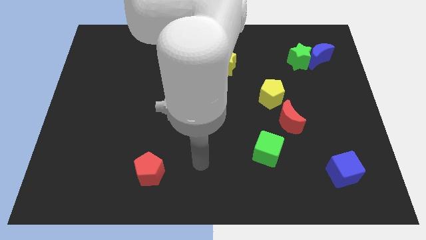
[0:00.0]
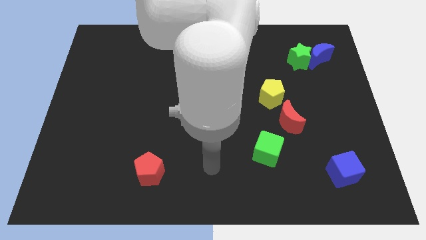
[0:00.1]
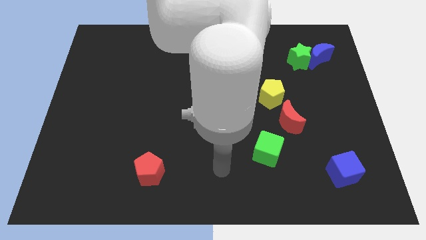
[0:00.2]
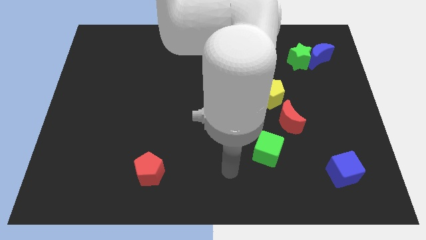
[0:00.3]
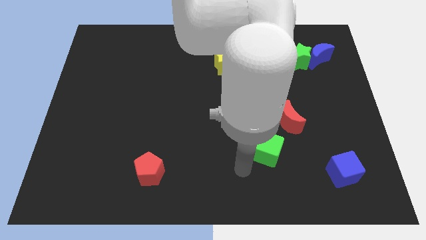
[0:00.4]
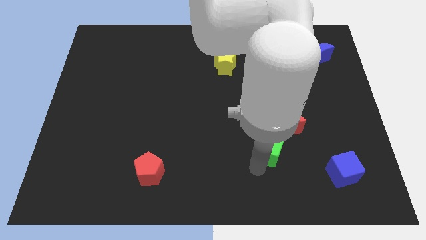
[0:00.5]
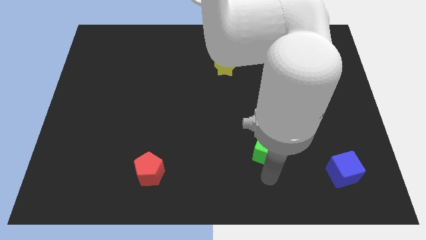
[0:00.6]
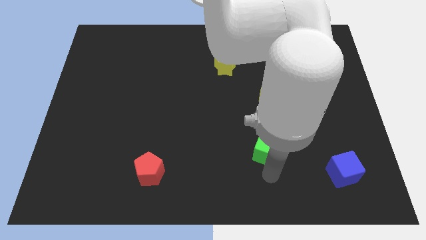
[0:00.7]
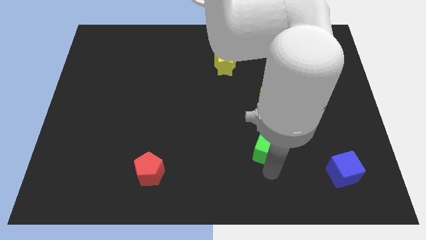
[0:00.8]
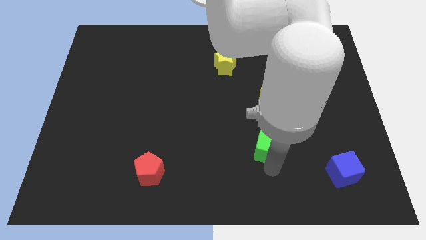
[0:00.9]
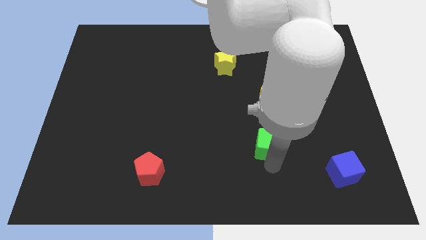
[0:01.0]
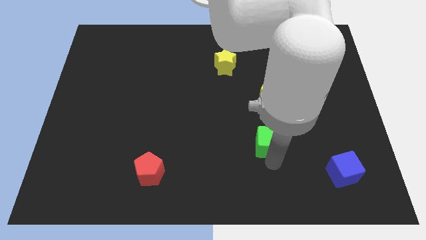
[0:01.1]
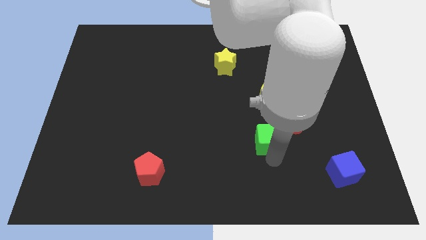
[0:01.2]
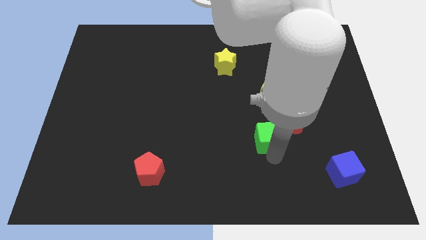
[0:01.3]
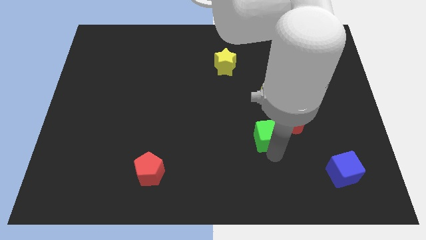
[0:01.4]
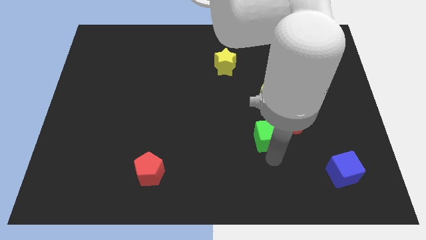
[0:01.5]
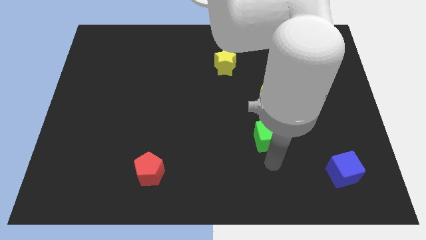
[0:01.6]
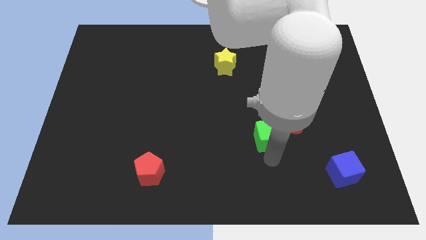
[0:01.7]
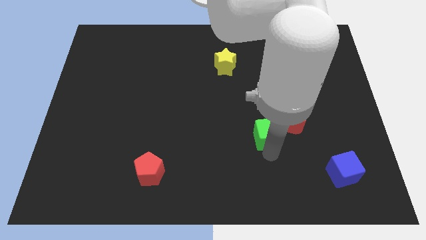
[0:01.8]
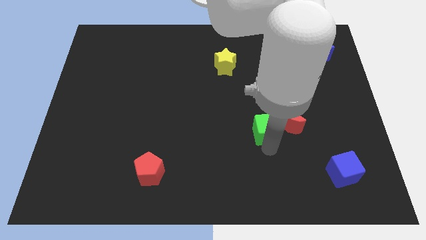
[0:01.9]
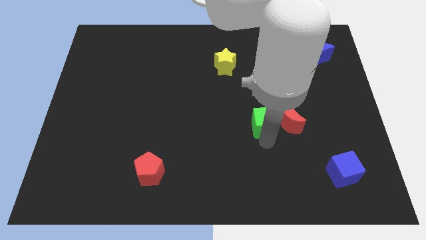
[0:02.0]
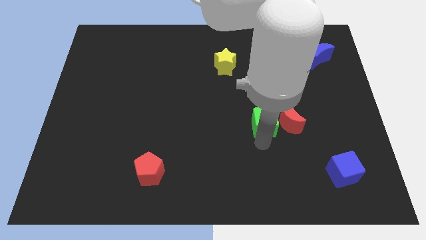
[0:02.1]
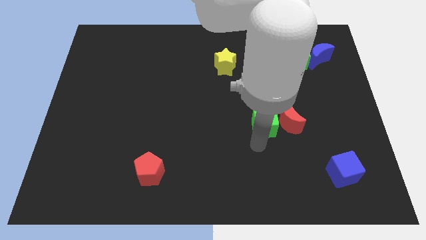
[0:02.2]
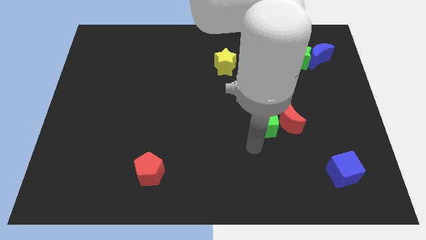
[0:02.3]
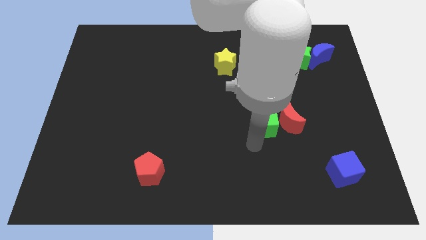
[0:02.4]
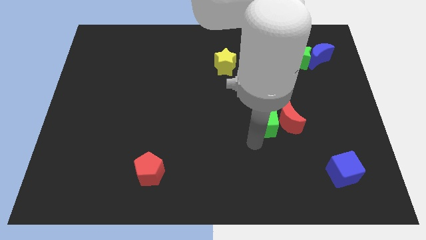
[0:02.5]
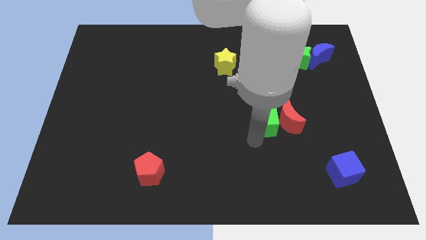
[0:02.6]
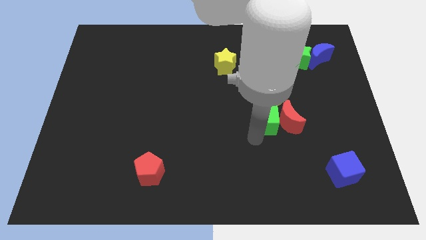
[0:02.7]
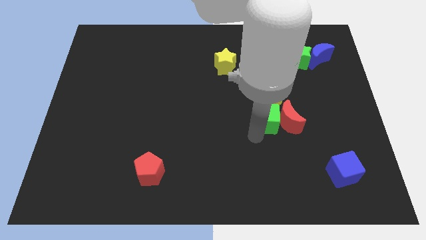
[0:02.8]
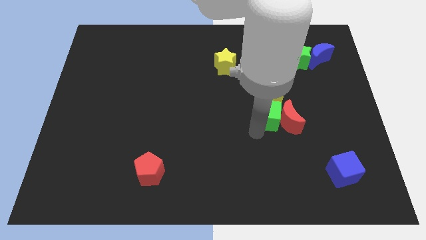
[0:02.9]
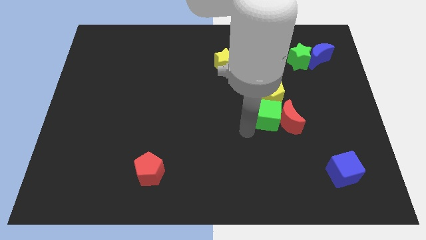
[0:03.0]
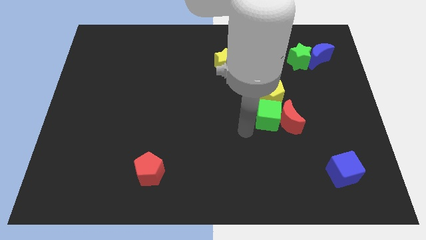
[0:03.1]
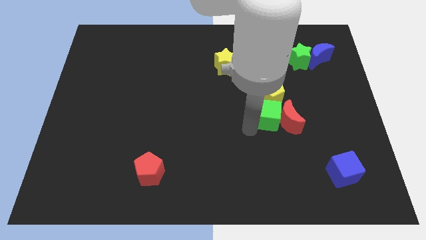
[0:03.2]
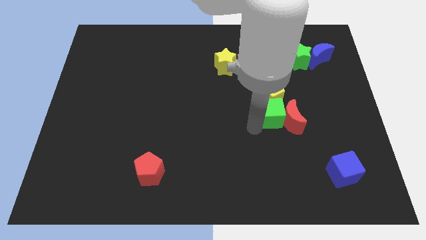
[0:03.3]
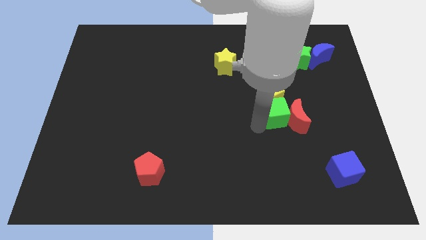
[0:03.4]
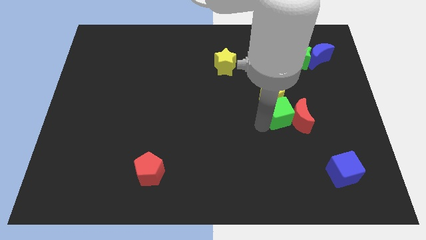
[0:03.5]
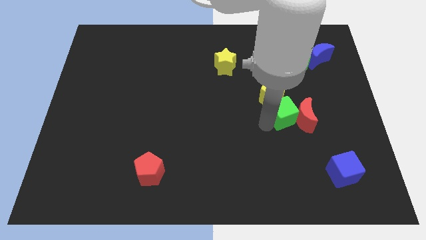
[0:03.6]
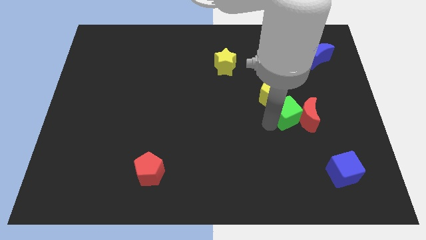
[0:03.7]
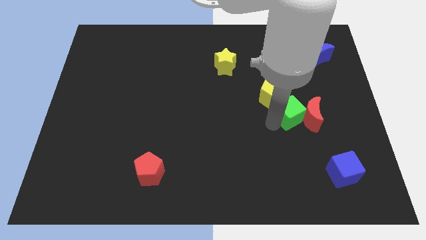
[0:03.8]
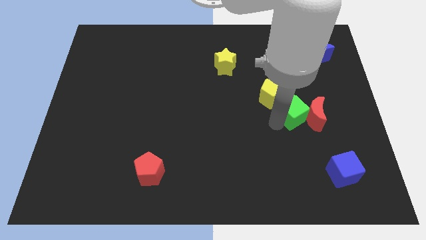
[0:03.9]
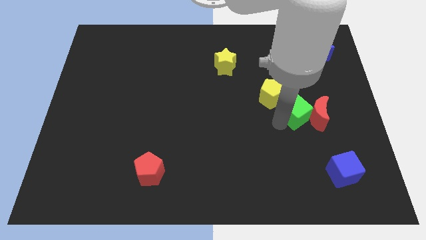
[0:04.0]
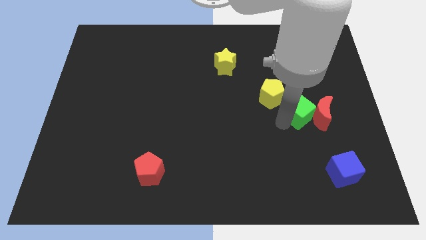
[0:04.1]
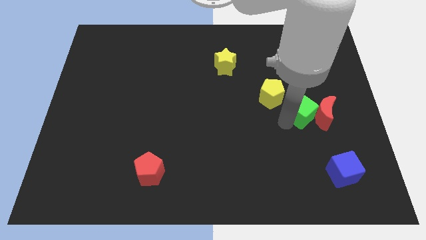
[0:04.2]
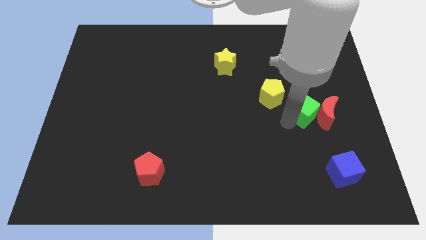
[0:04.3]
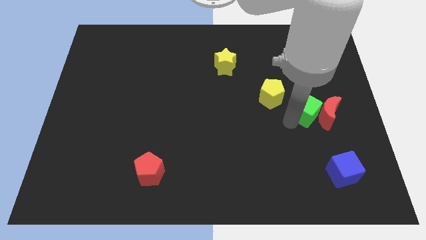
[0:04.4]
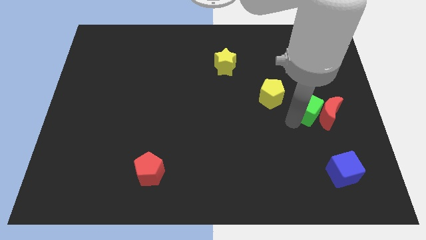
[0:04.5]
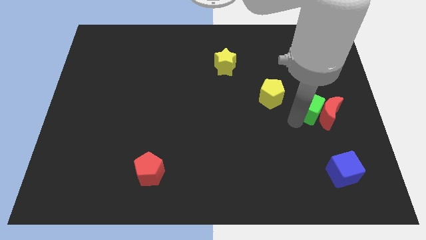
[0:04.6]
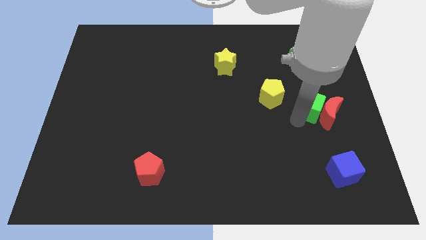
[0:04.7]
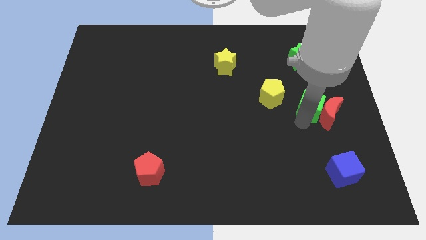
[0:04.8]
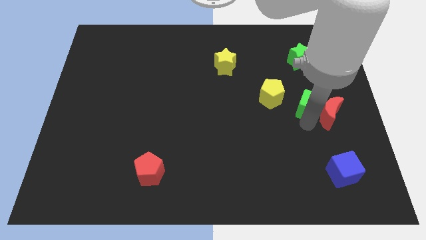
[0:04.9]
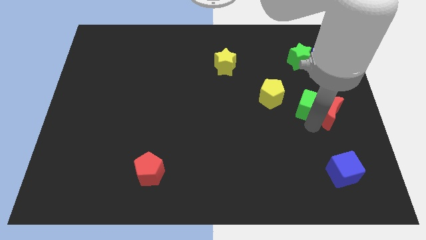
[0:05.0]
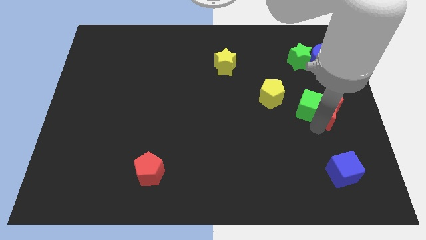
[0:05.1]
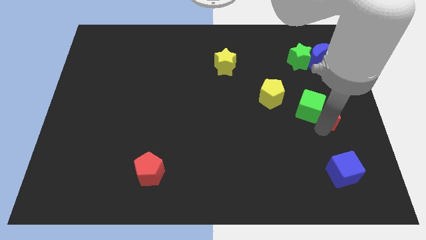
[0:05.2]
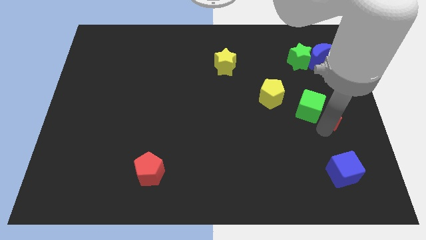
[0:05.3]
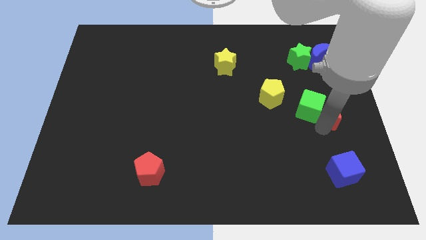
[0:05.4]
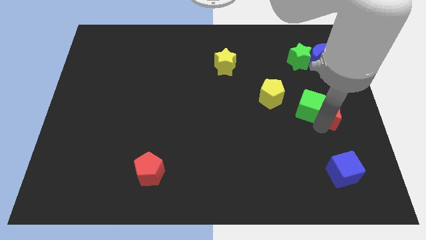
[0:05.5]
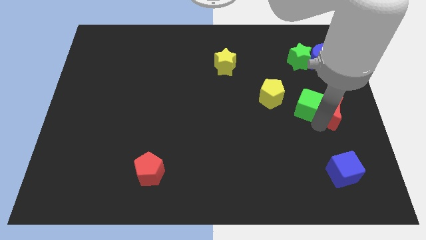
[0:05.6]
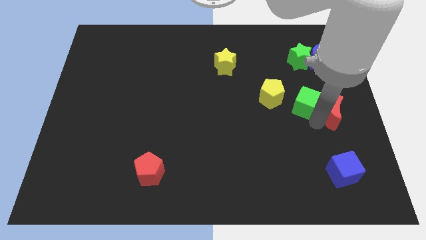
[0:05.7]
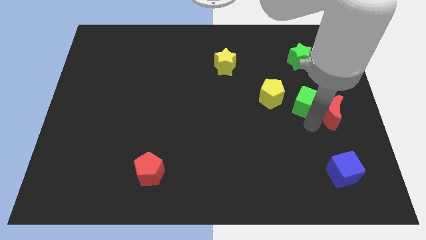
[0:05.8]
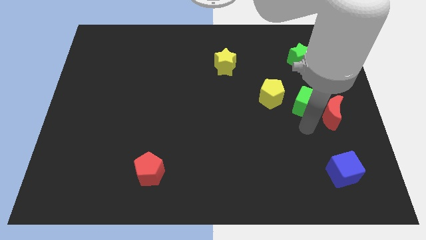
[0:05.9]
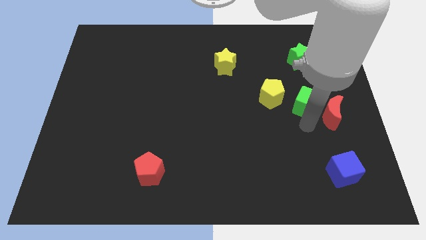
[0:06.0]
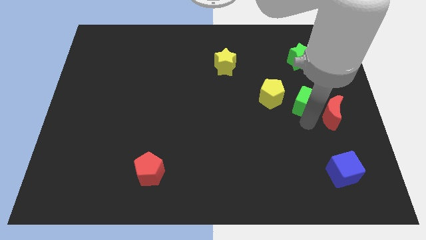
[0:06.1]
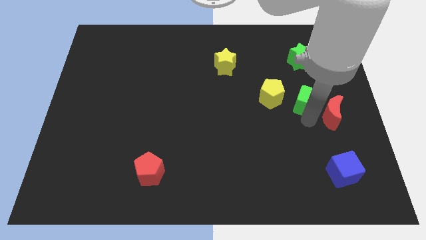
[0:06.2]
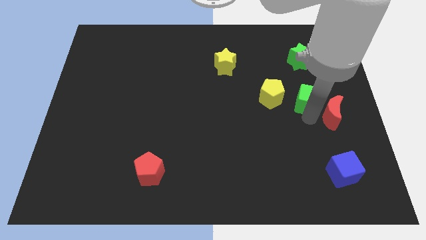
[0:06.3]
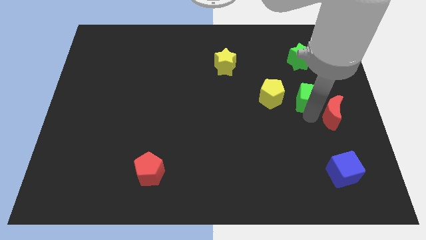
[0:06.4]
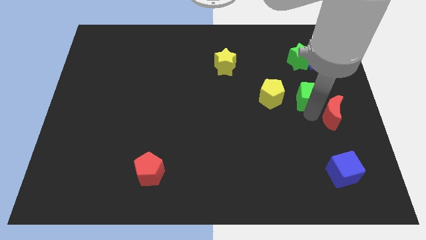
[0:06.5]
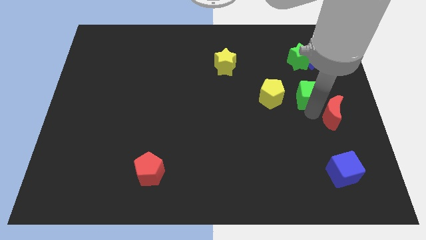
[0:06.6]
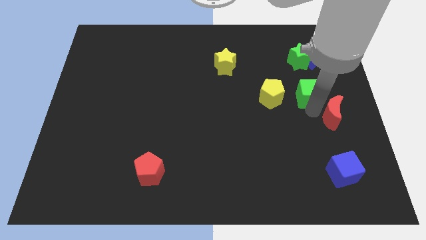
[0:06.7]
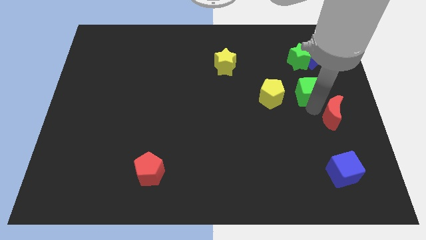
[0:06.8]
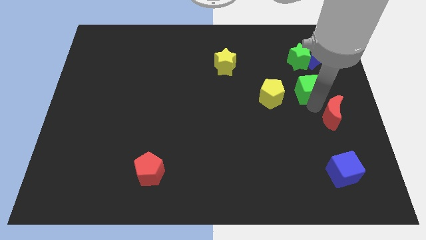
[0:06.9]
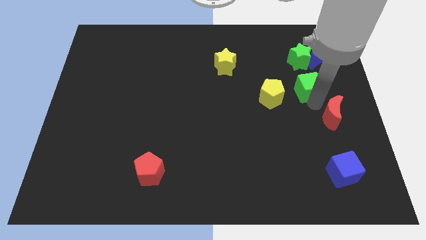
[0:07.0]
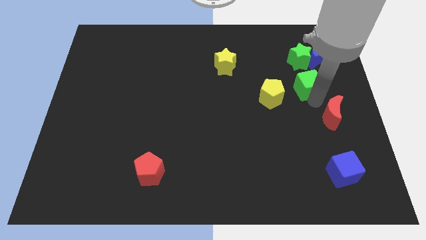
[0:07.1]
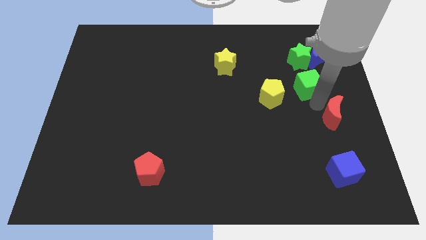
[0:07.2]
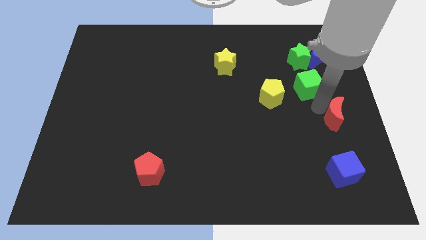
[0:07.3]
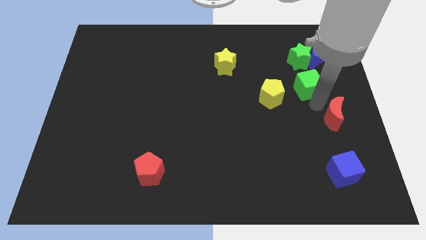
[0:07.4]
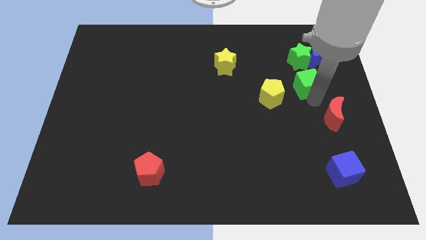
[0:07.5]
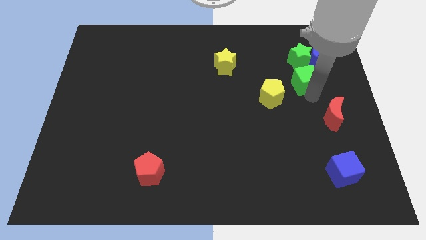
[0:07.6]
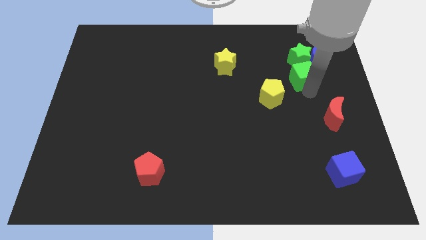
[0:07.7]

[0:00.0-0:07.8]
put the green cube towards the green star
